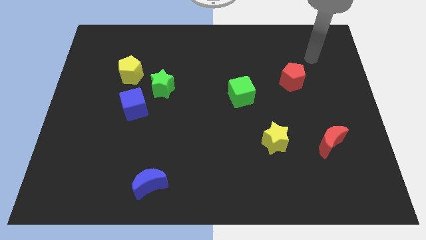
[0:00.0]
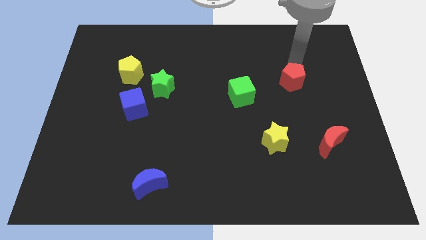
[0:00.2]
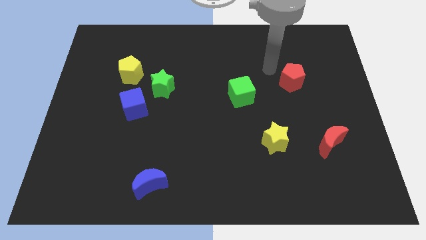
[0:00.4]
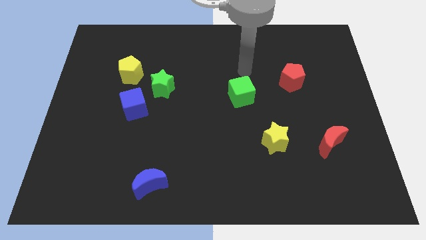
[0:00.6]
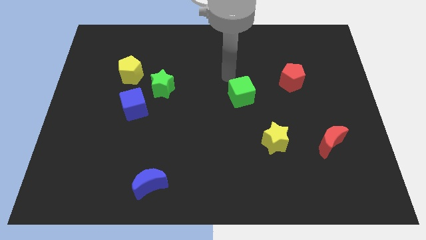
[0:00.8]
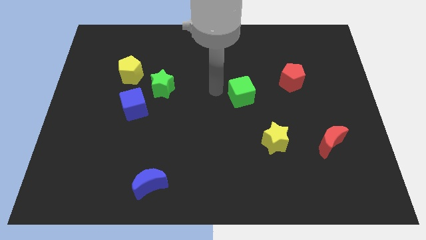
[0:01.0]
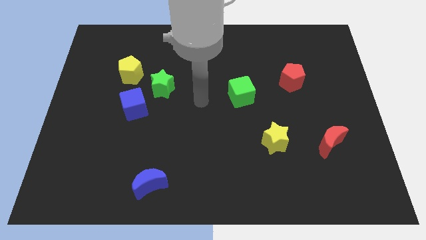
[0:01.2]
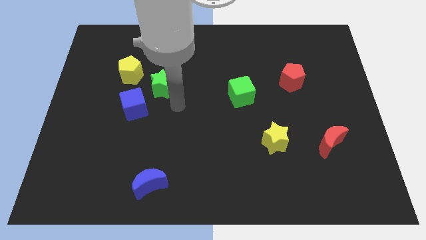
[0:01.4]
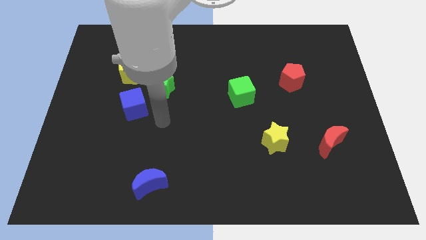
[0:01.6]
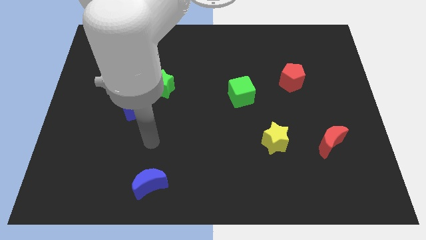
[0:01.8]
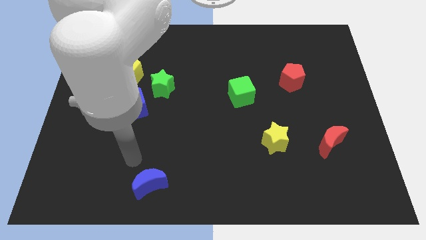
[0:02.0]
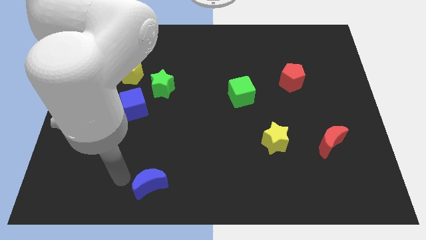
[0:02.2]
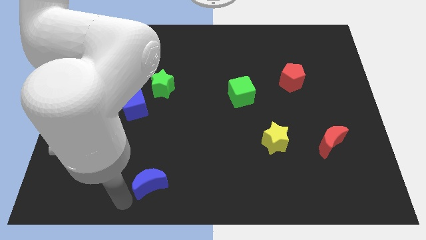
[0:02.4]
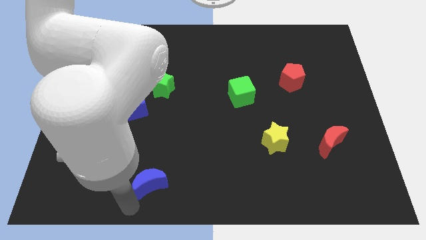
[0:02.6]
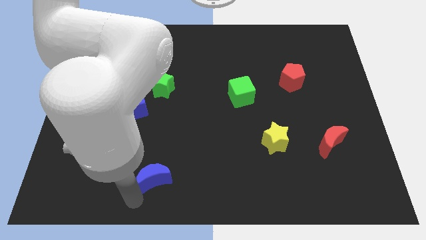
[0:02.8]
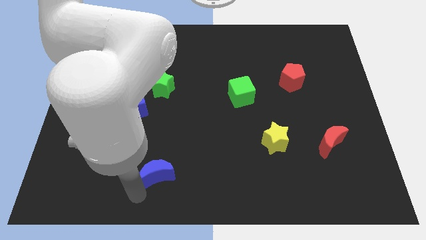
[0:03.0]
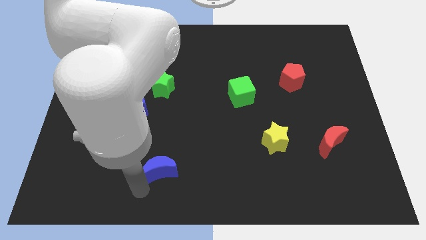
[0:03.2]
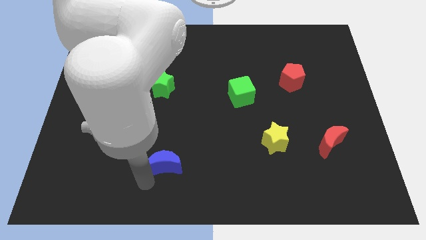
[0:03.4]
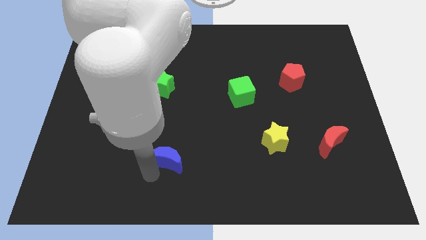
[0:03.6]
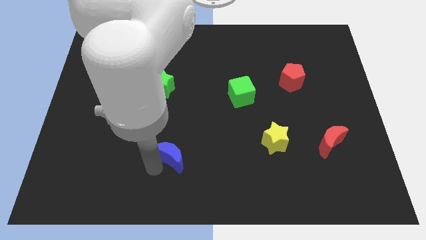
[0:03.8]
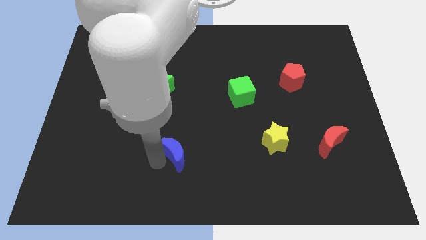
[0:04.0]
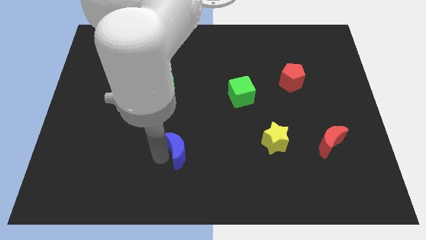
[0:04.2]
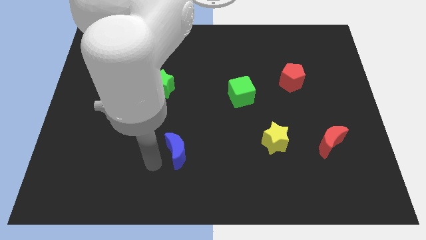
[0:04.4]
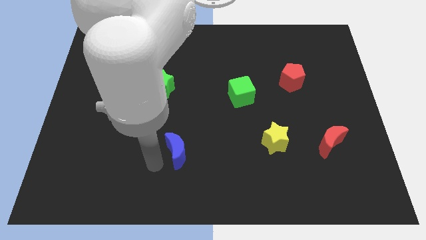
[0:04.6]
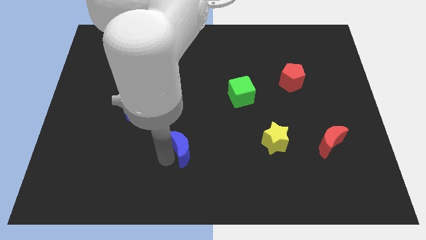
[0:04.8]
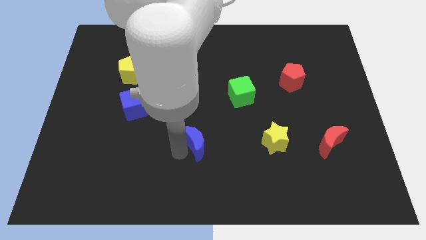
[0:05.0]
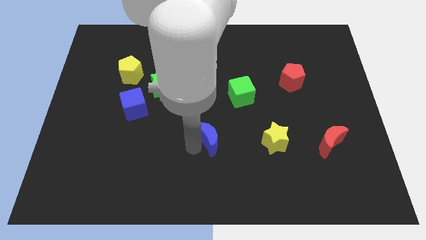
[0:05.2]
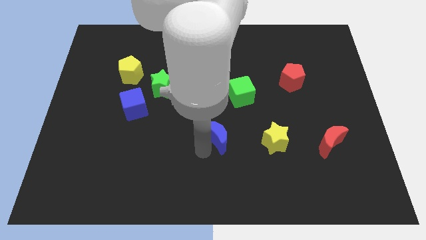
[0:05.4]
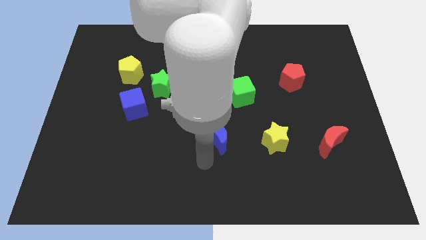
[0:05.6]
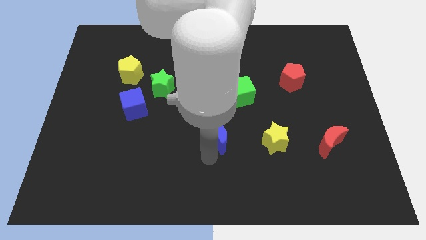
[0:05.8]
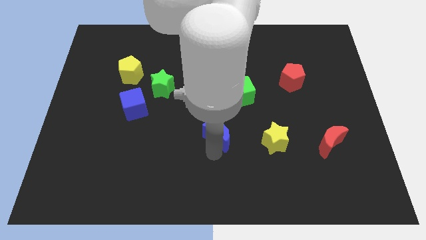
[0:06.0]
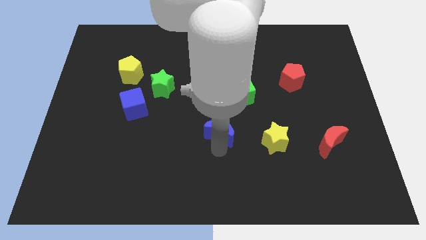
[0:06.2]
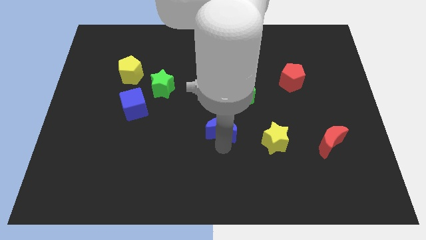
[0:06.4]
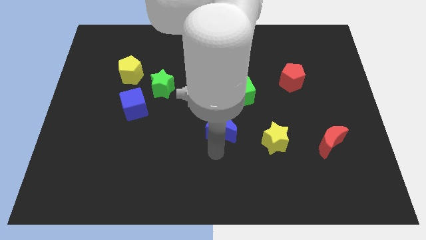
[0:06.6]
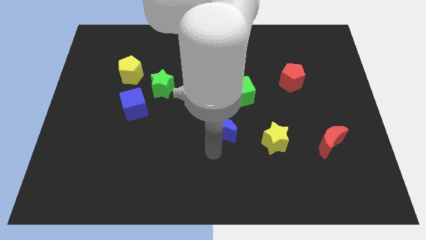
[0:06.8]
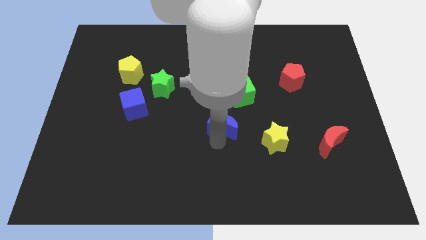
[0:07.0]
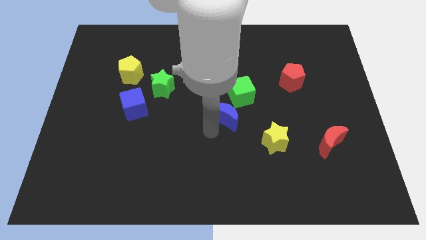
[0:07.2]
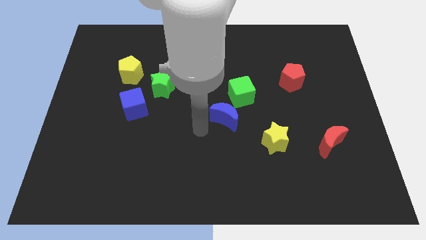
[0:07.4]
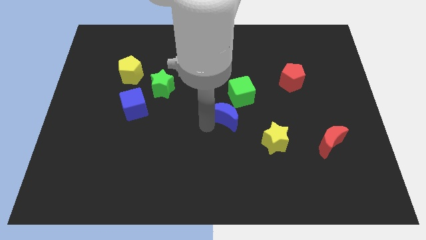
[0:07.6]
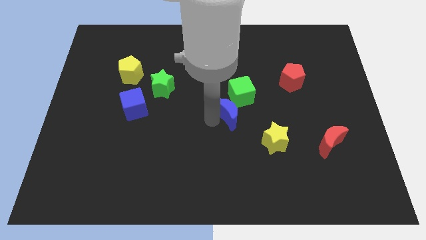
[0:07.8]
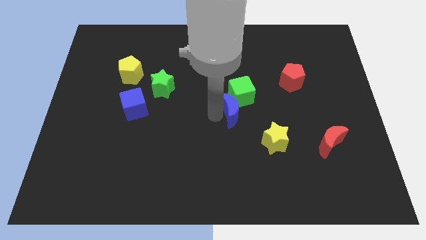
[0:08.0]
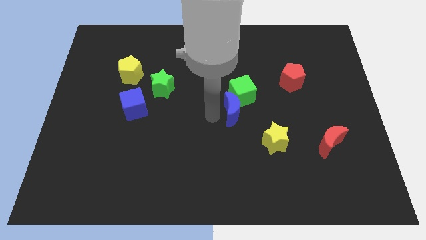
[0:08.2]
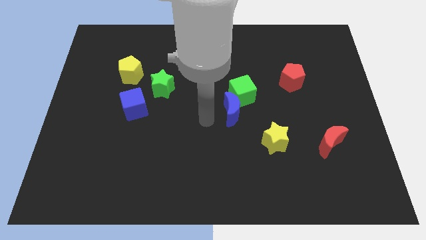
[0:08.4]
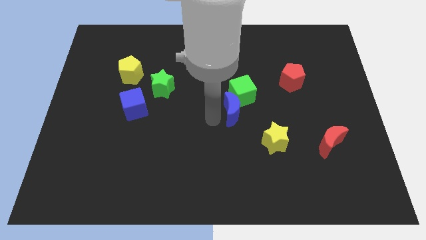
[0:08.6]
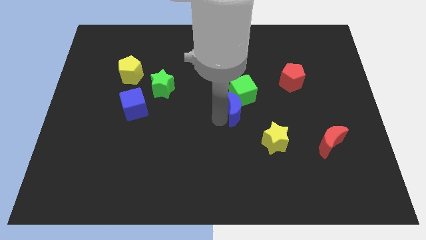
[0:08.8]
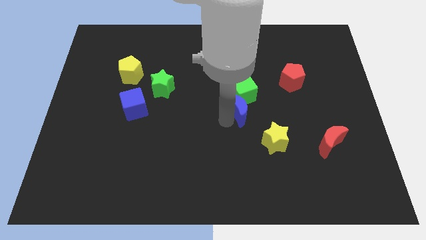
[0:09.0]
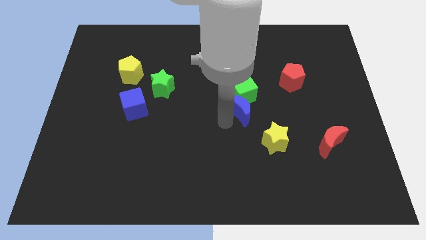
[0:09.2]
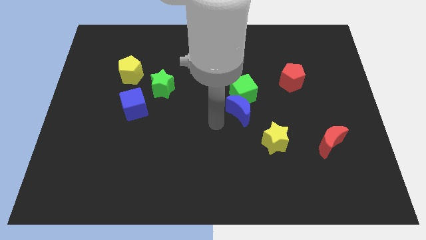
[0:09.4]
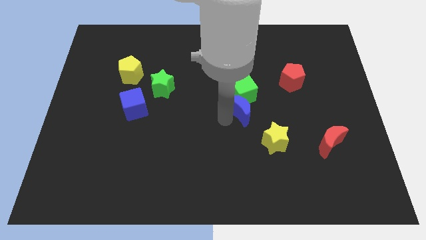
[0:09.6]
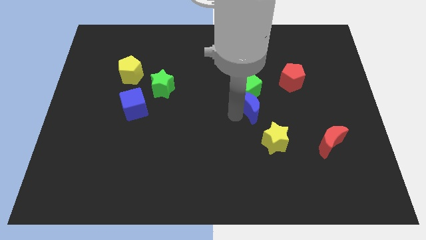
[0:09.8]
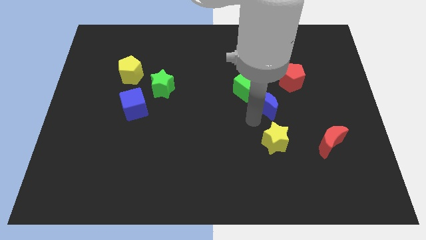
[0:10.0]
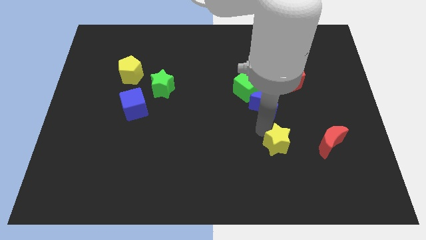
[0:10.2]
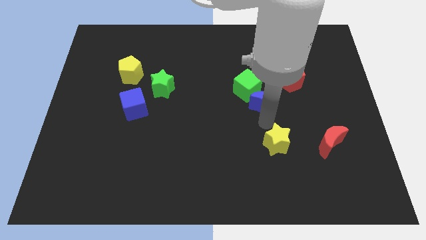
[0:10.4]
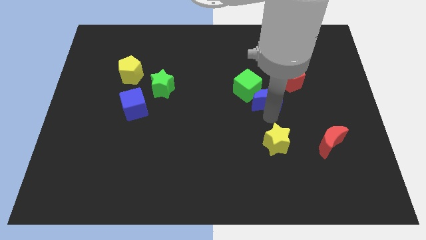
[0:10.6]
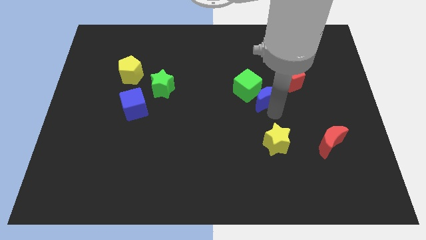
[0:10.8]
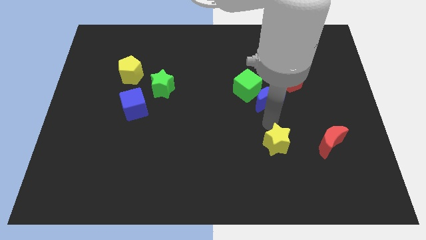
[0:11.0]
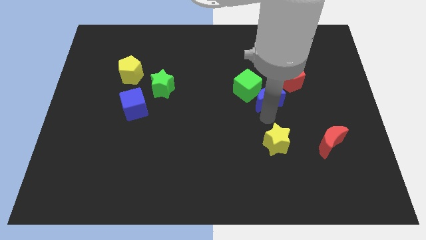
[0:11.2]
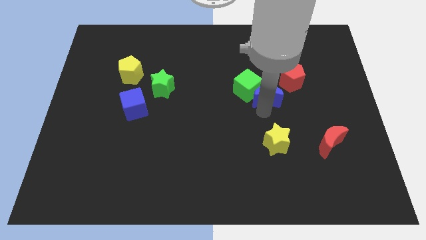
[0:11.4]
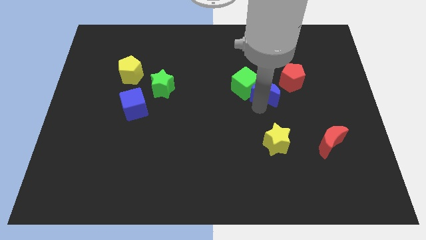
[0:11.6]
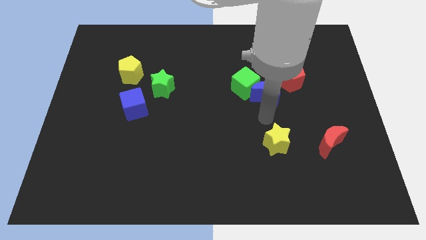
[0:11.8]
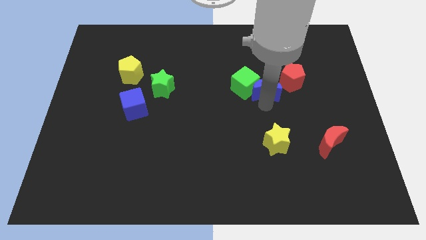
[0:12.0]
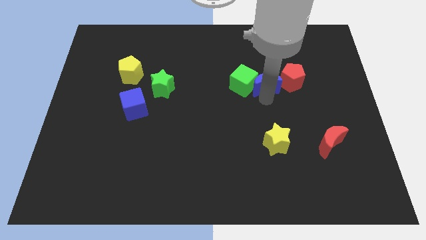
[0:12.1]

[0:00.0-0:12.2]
slide the blue moon diagonally up and to the right of the green cube

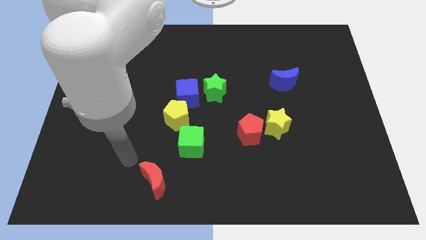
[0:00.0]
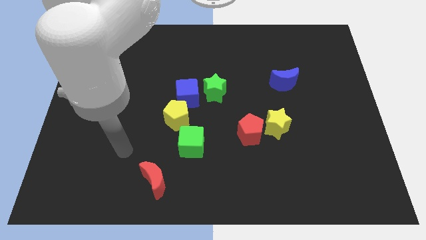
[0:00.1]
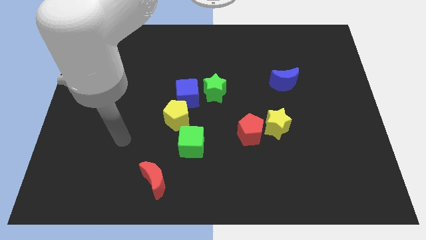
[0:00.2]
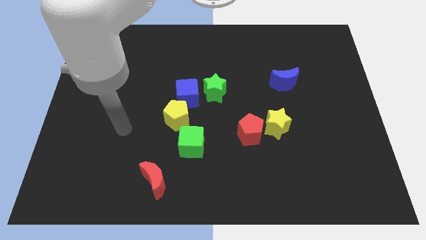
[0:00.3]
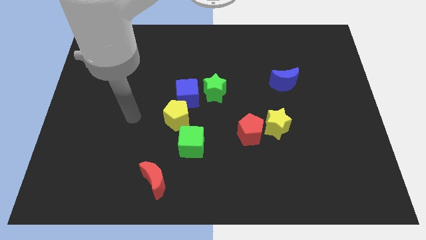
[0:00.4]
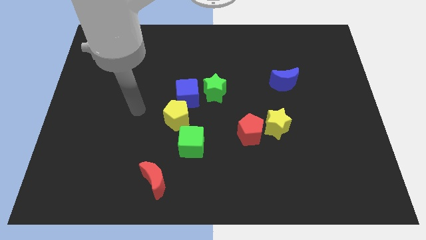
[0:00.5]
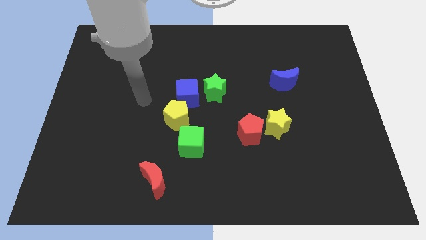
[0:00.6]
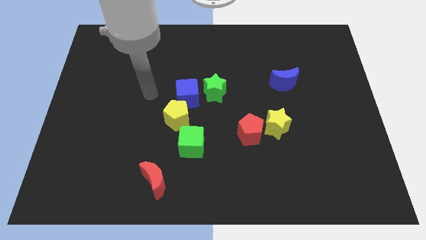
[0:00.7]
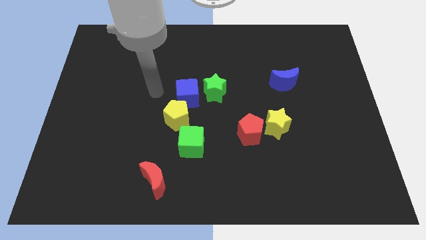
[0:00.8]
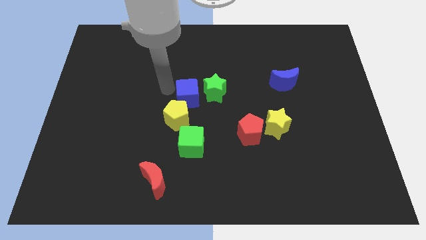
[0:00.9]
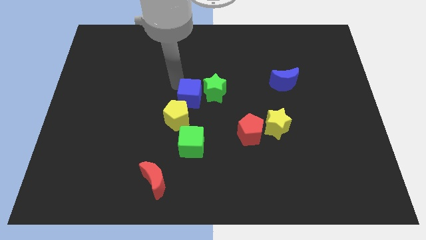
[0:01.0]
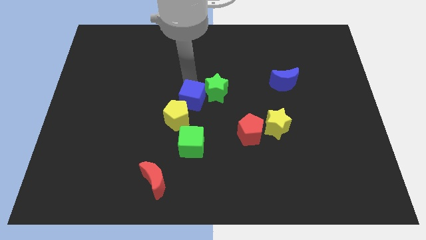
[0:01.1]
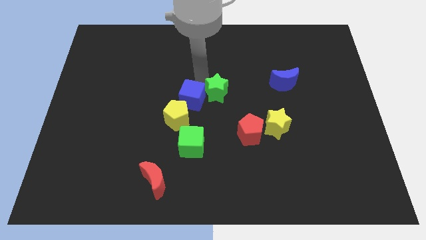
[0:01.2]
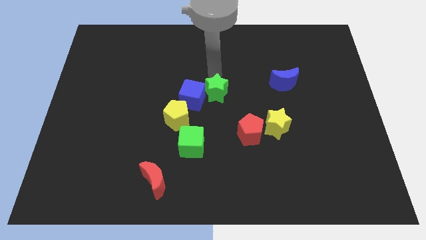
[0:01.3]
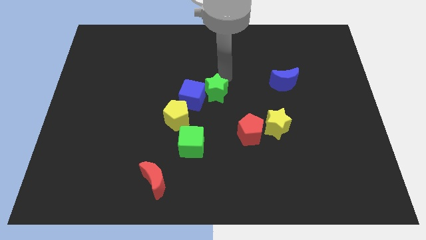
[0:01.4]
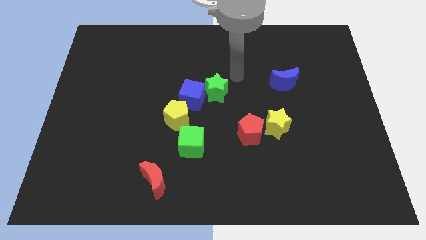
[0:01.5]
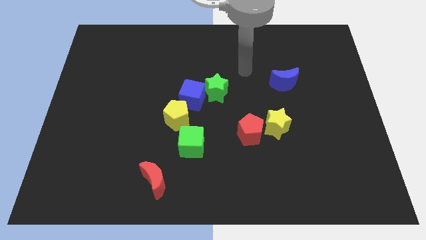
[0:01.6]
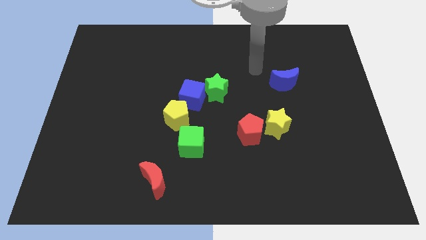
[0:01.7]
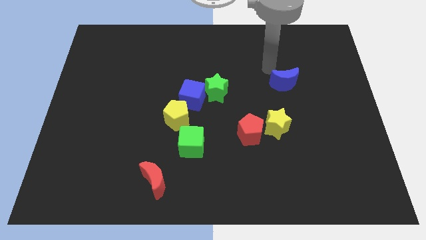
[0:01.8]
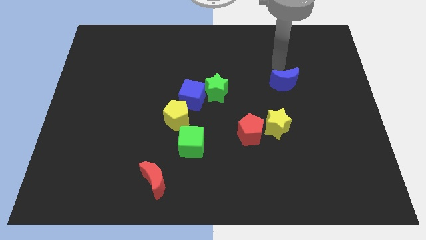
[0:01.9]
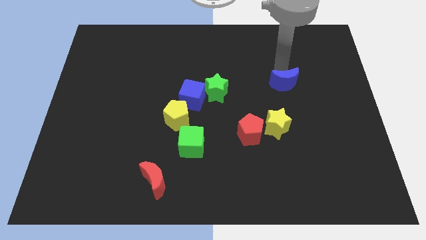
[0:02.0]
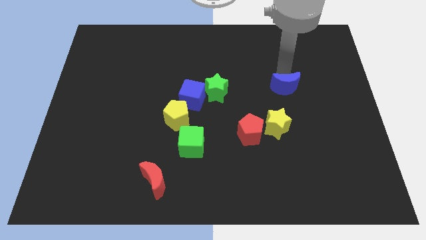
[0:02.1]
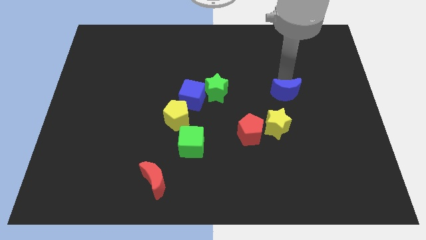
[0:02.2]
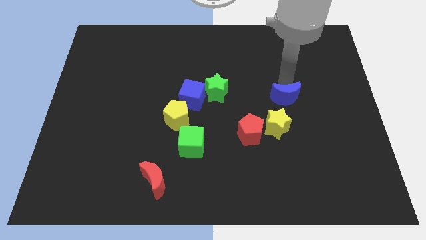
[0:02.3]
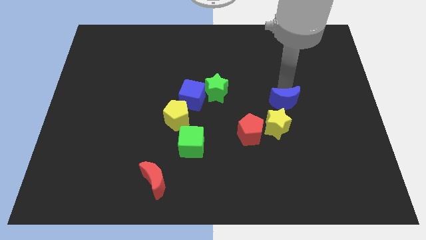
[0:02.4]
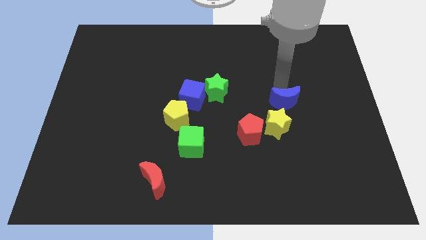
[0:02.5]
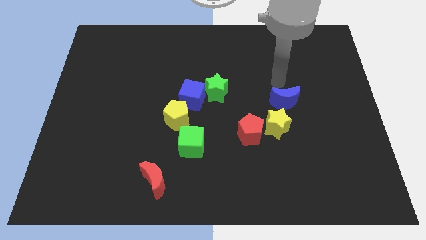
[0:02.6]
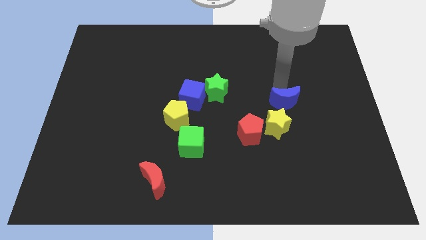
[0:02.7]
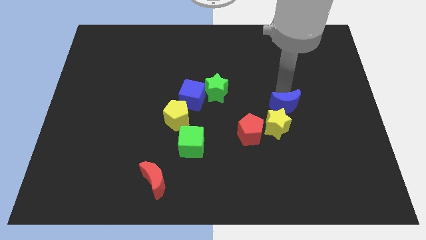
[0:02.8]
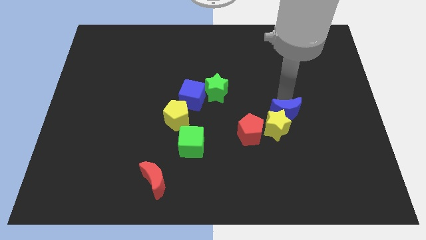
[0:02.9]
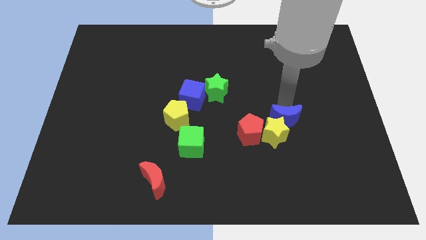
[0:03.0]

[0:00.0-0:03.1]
put the blue moon to the right of the red pentagon
